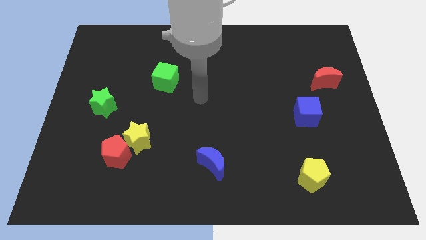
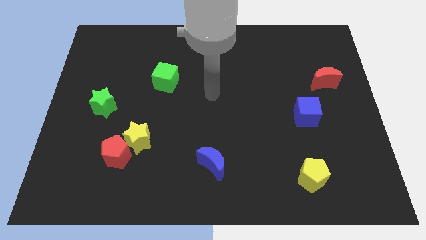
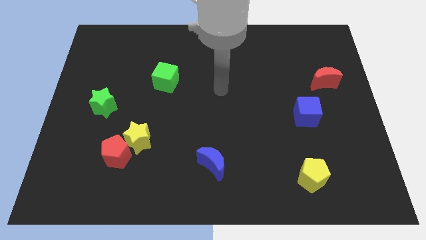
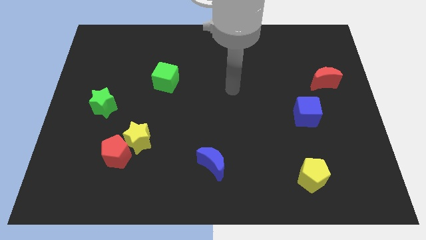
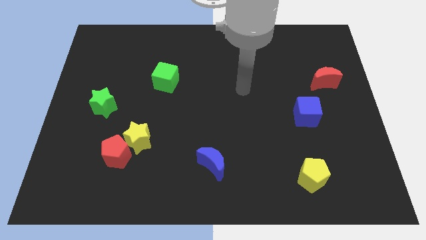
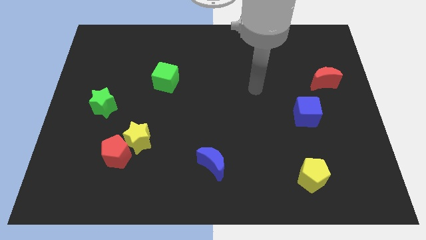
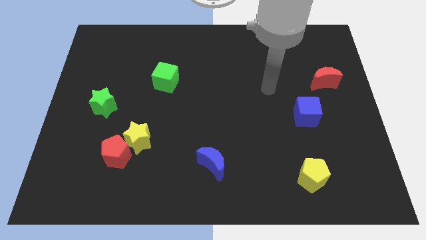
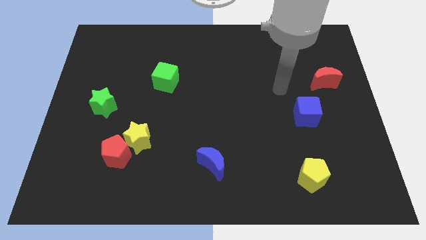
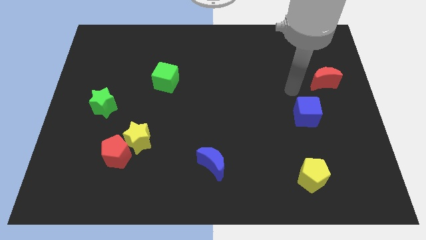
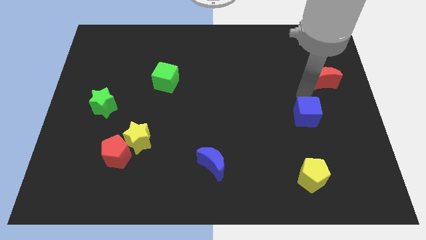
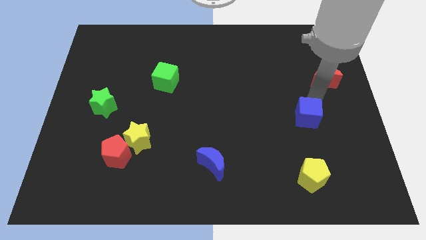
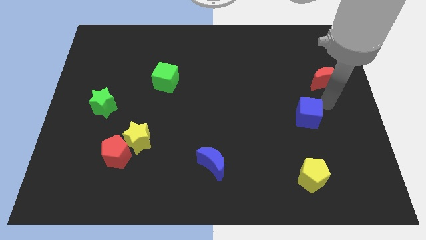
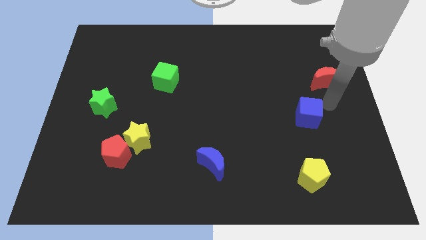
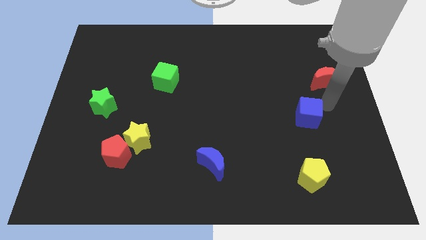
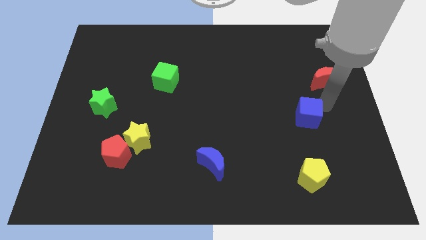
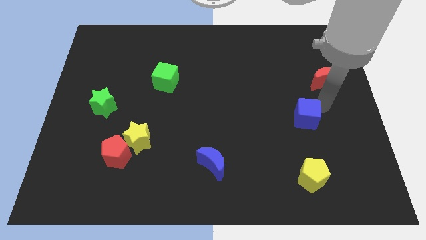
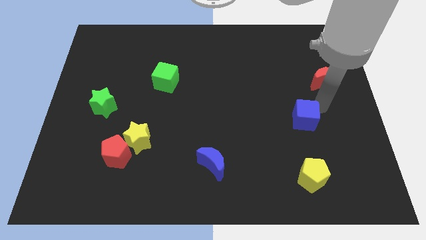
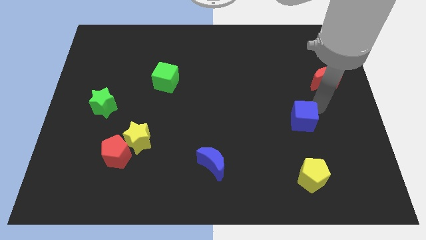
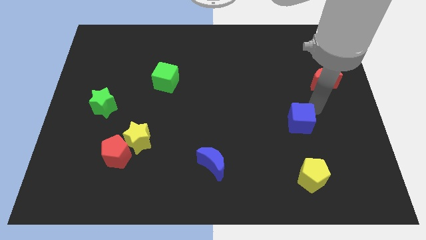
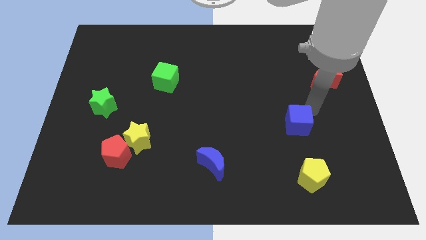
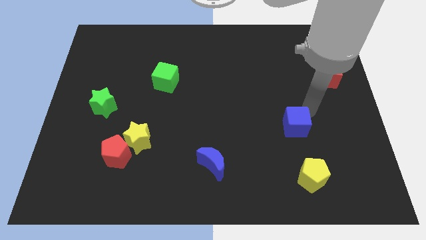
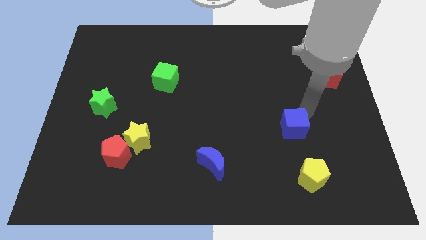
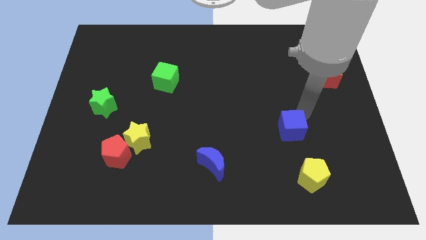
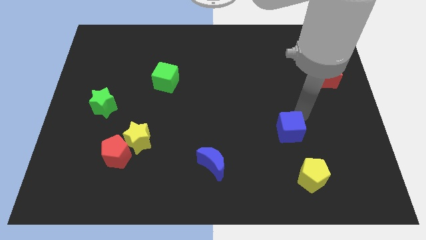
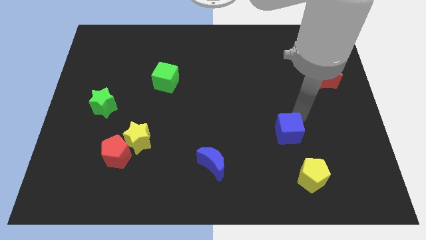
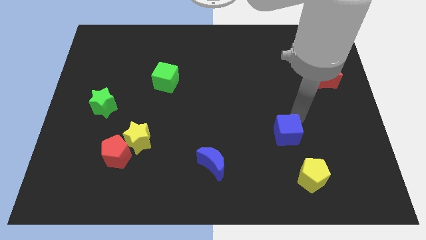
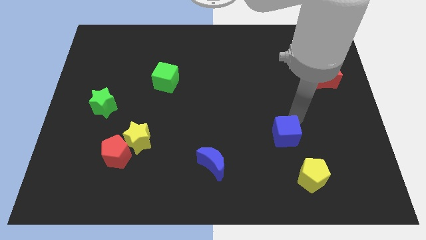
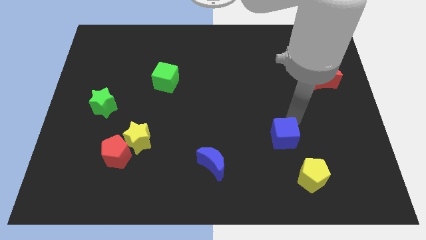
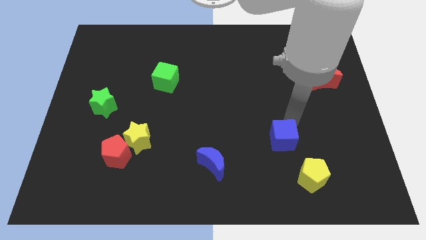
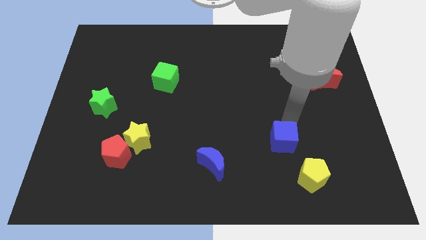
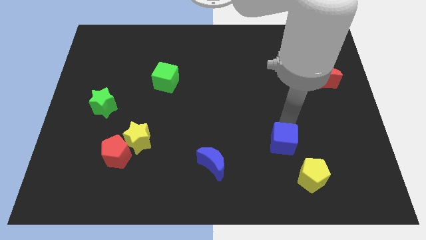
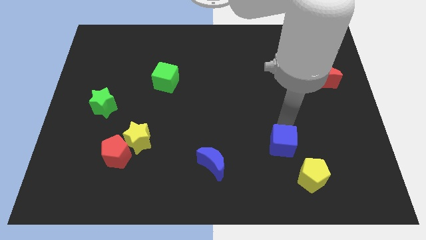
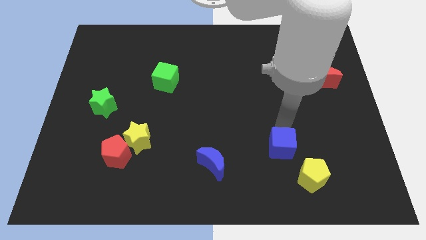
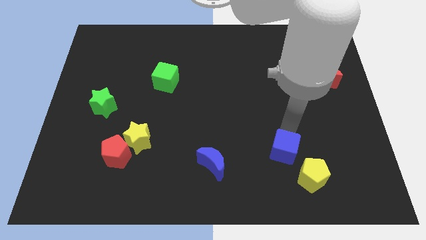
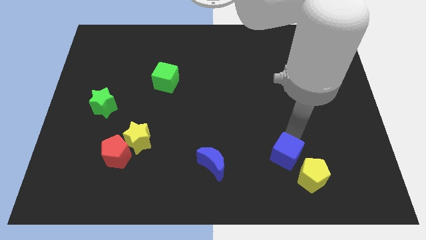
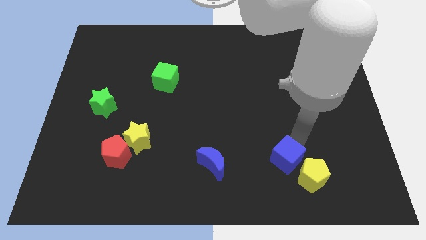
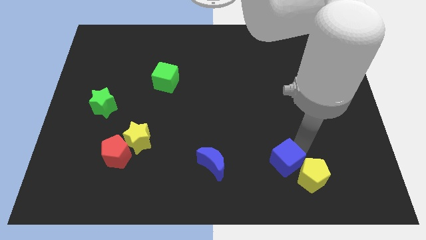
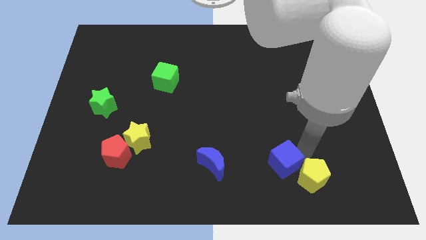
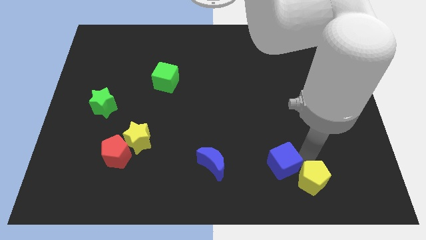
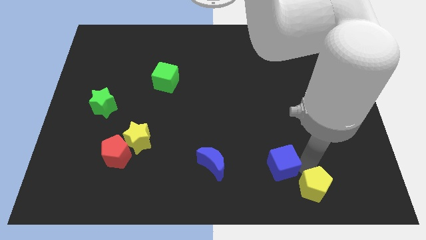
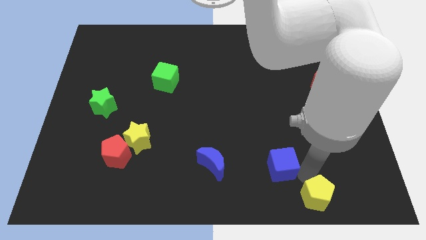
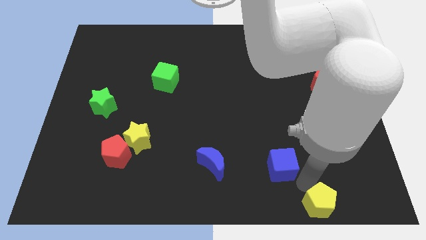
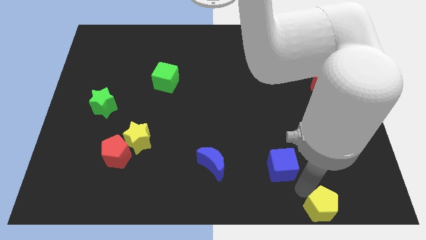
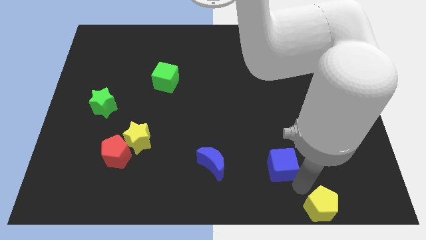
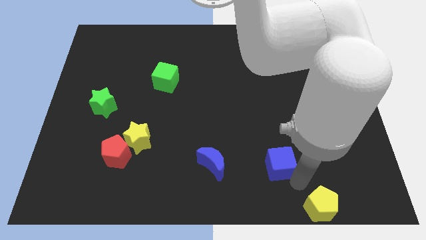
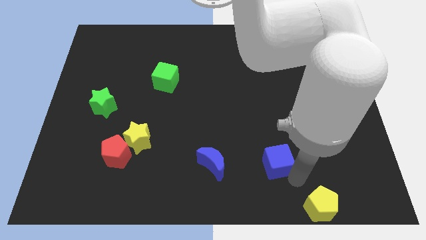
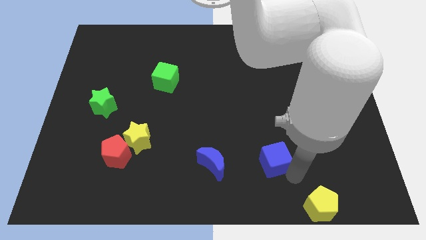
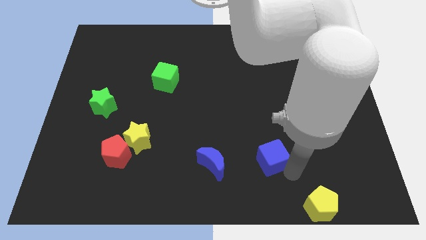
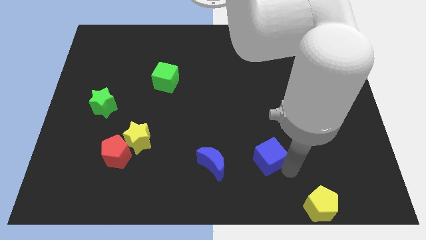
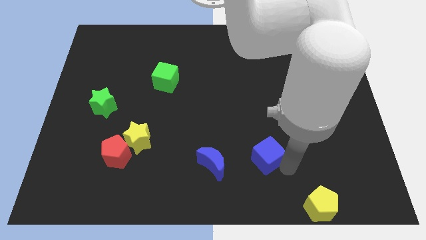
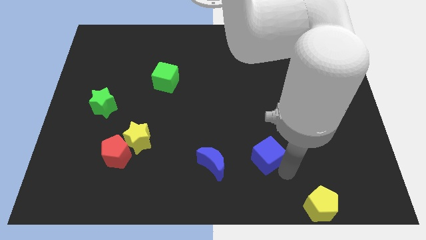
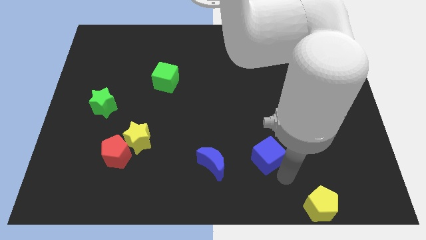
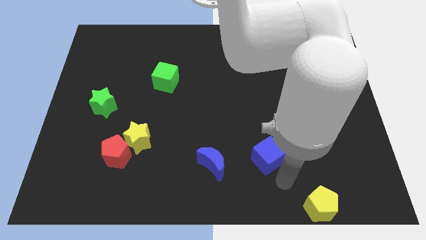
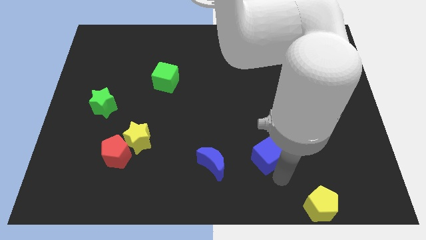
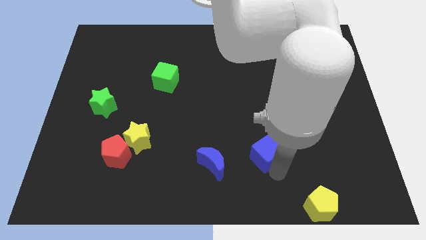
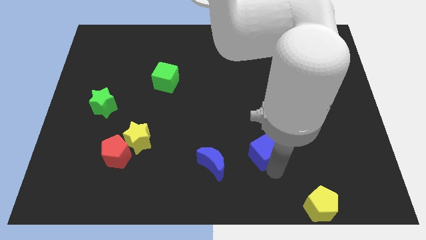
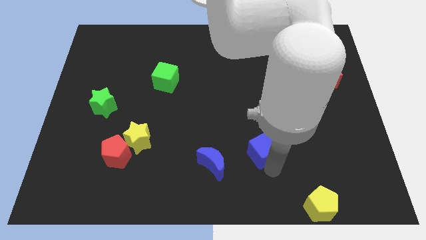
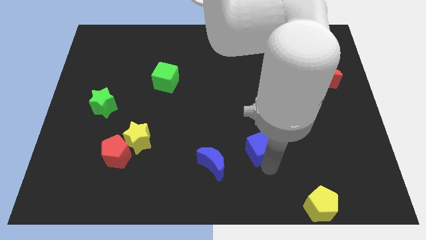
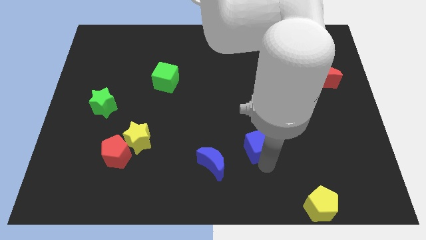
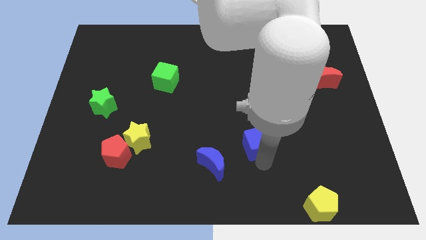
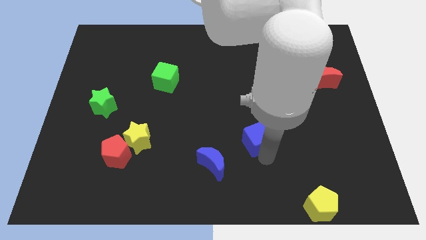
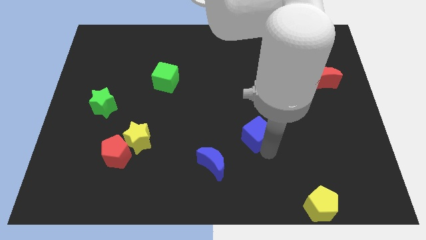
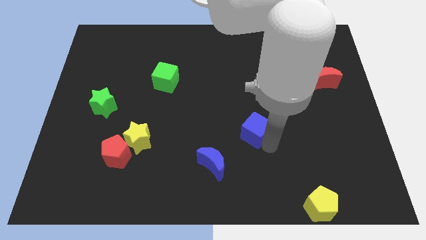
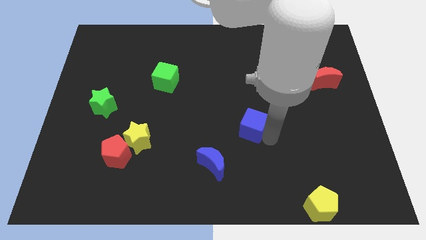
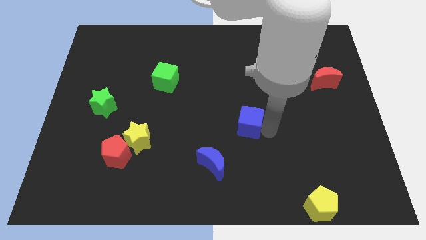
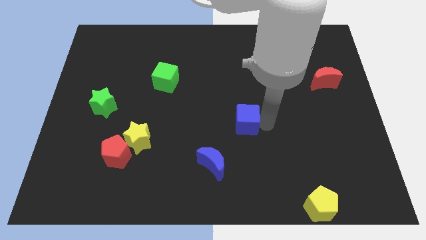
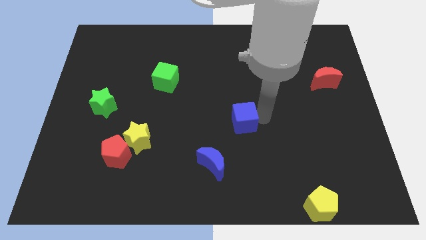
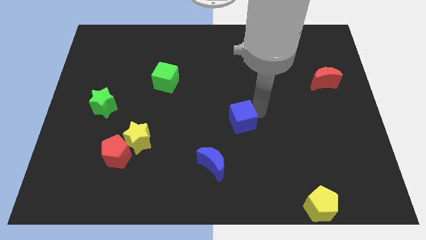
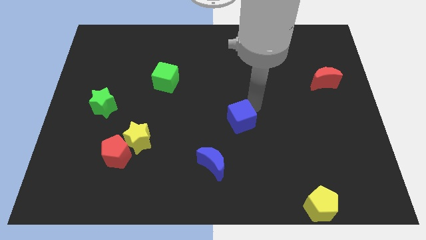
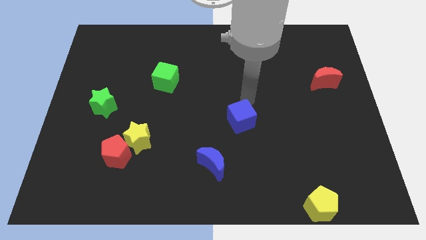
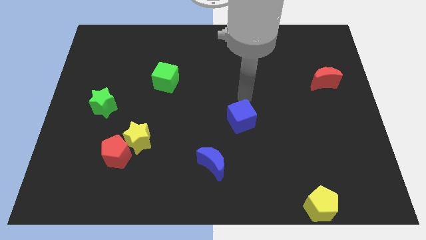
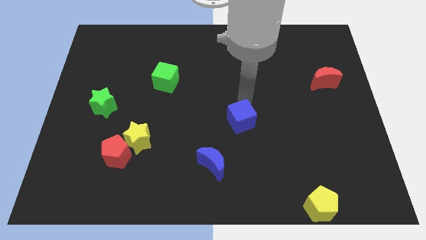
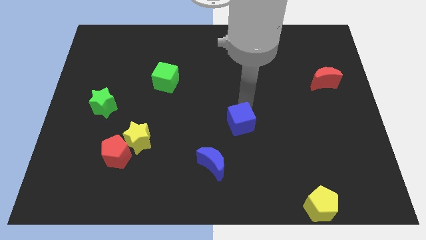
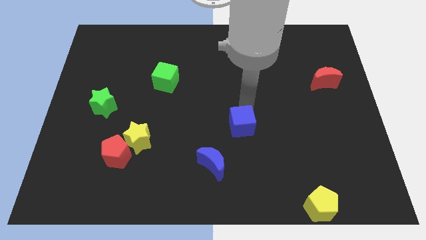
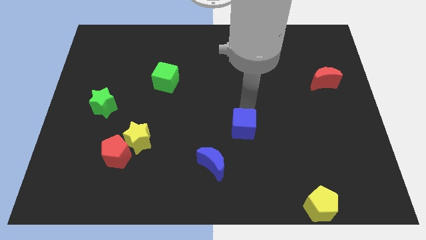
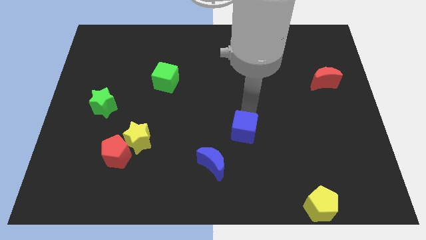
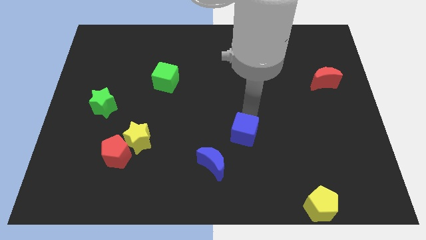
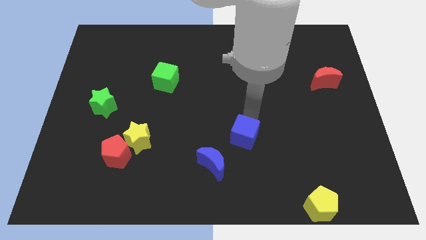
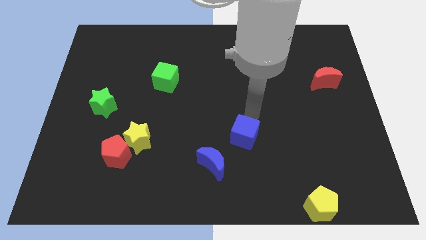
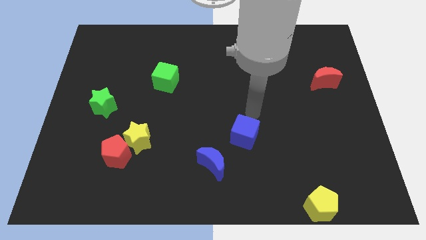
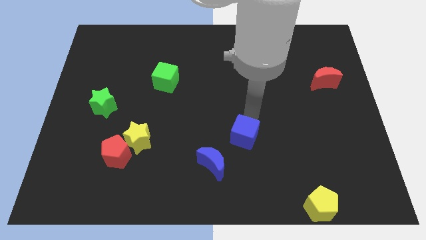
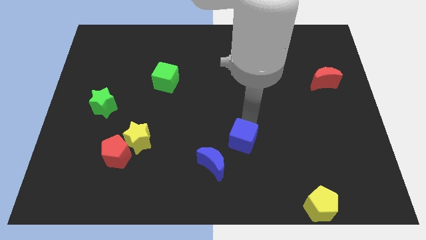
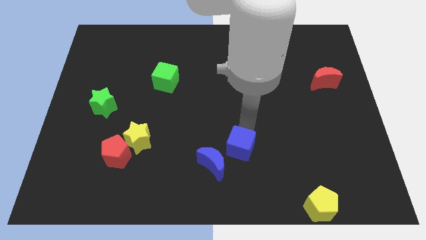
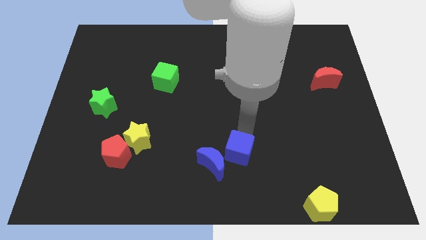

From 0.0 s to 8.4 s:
put the blue cube towards the blue moon
